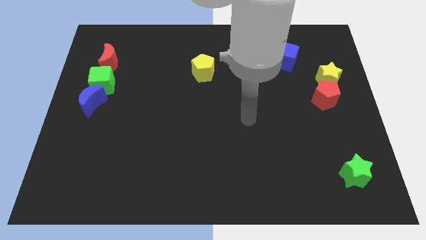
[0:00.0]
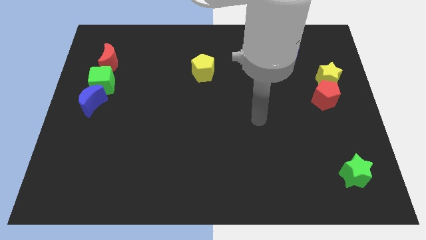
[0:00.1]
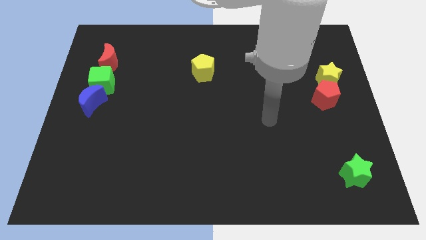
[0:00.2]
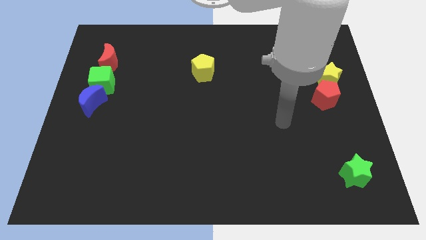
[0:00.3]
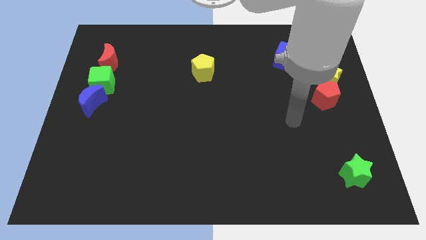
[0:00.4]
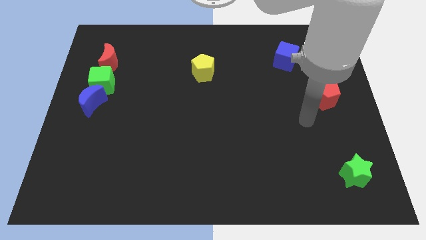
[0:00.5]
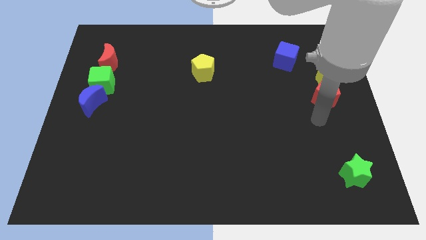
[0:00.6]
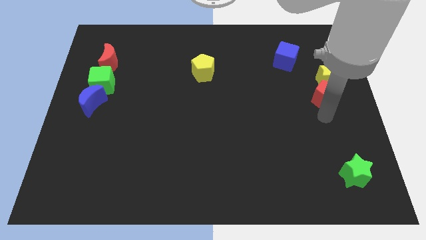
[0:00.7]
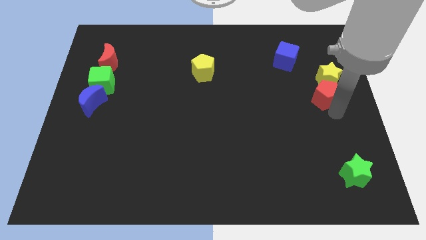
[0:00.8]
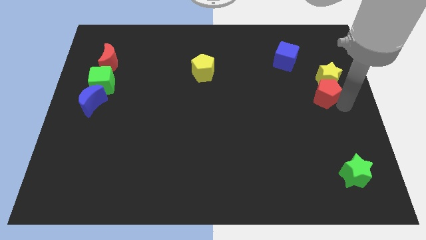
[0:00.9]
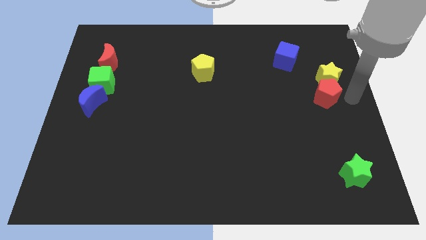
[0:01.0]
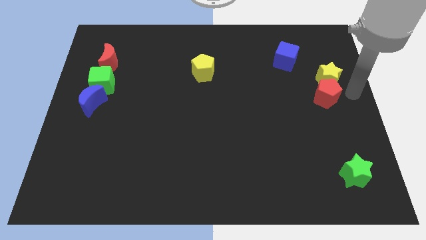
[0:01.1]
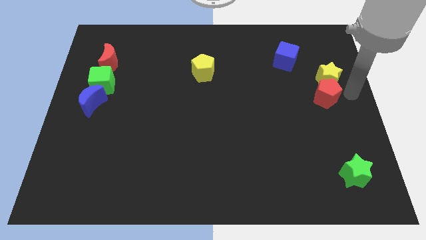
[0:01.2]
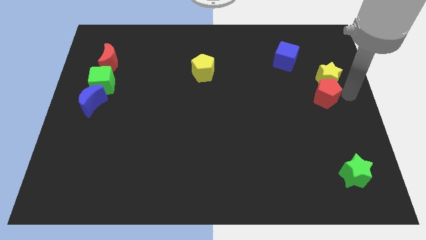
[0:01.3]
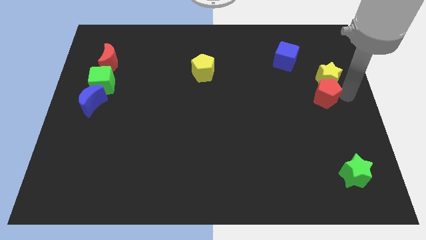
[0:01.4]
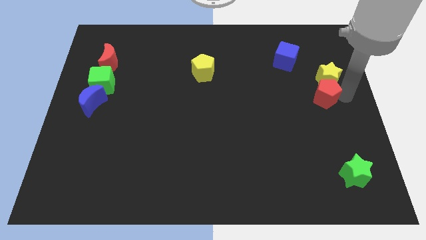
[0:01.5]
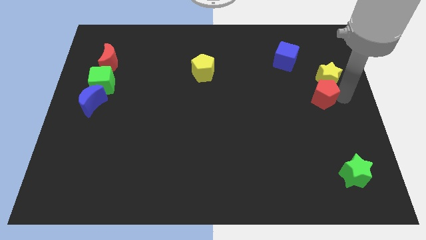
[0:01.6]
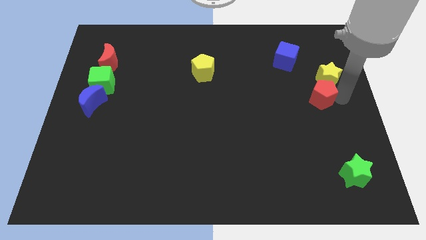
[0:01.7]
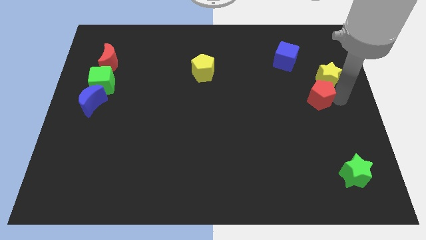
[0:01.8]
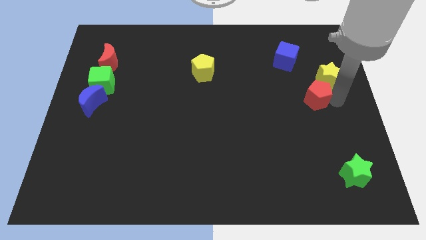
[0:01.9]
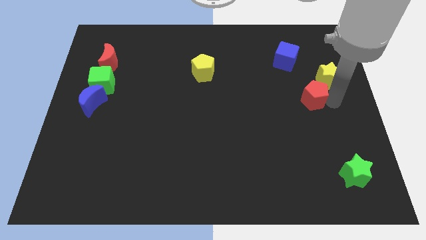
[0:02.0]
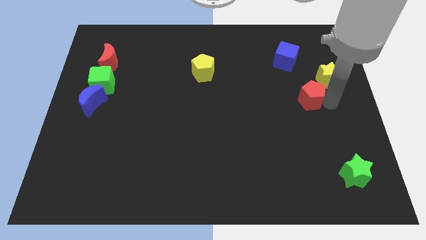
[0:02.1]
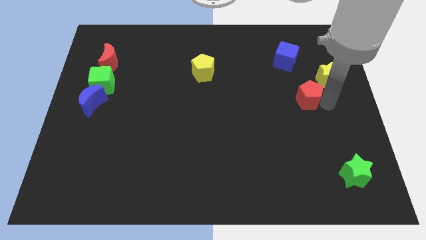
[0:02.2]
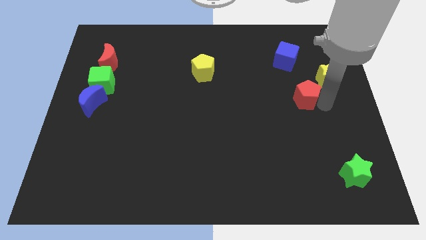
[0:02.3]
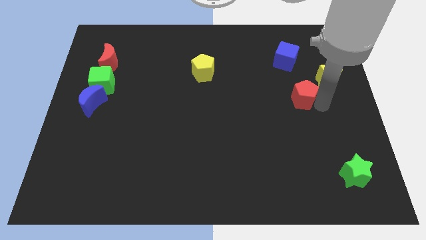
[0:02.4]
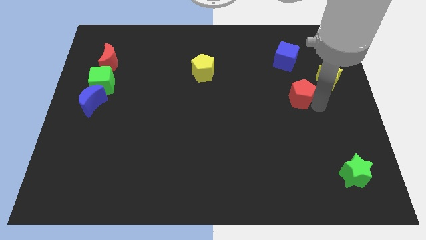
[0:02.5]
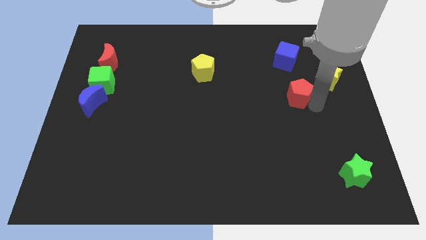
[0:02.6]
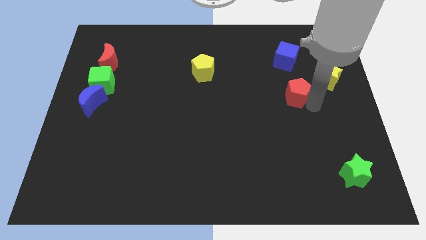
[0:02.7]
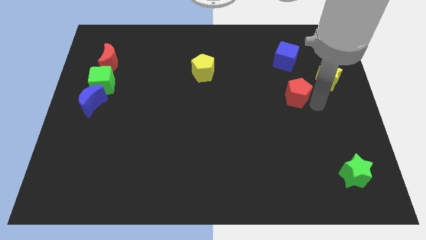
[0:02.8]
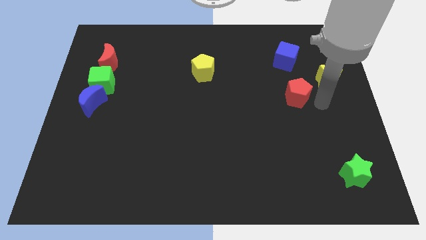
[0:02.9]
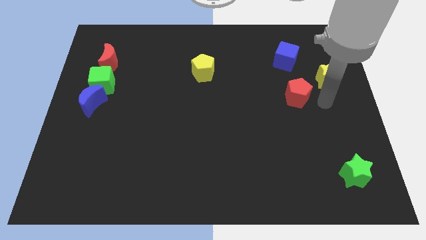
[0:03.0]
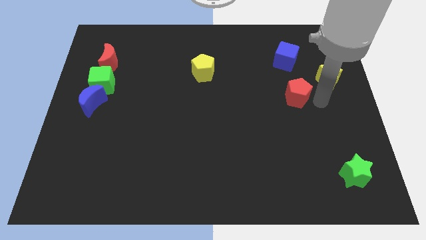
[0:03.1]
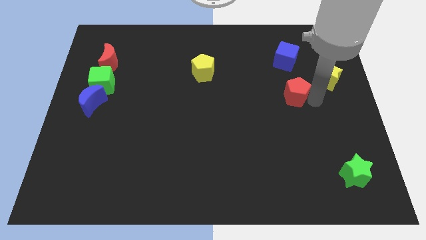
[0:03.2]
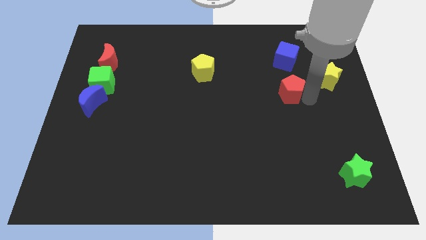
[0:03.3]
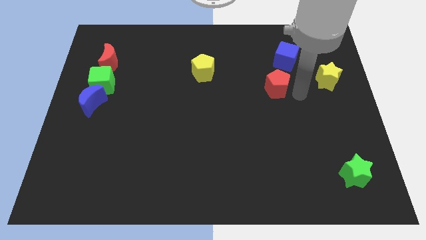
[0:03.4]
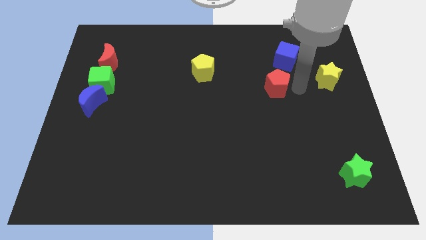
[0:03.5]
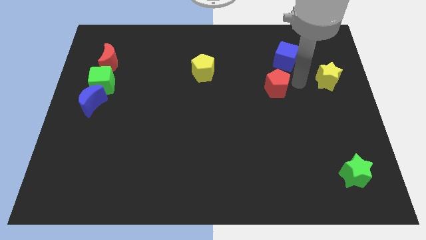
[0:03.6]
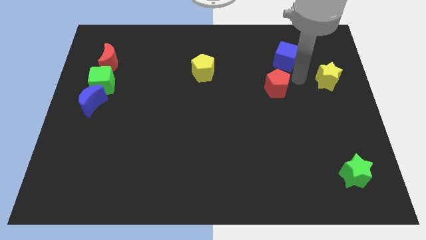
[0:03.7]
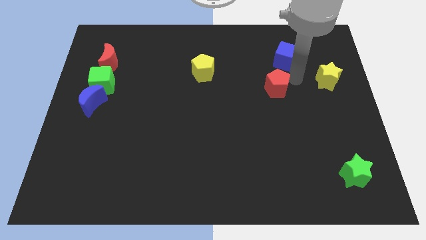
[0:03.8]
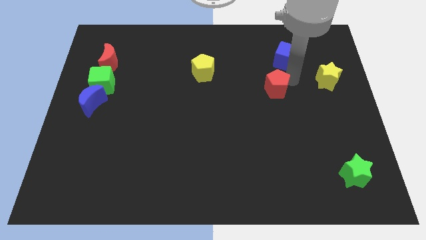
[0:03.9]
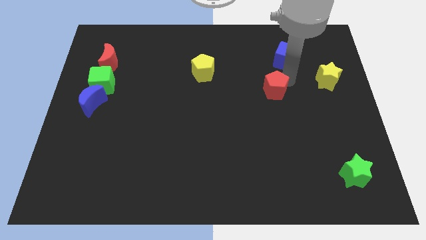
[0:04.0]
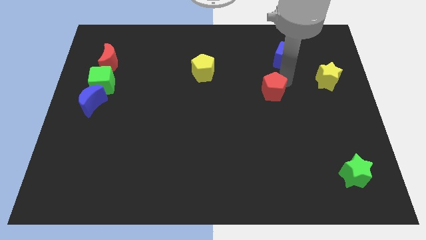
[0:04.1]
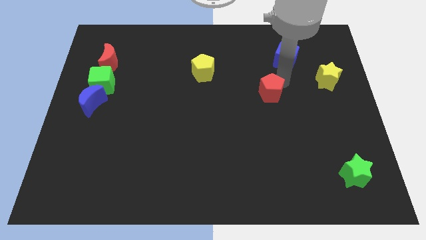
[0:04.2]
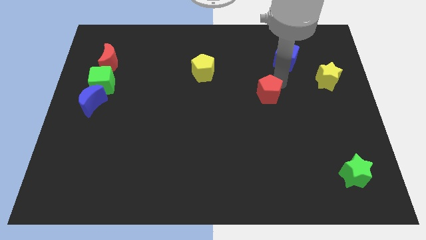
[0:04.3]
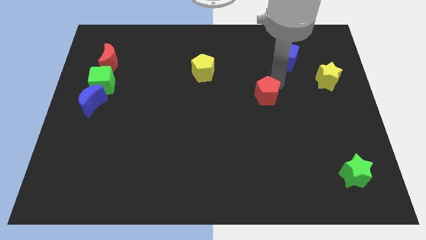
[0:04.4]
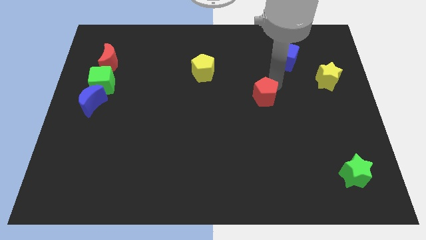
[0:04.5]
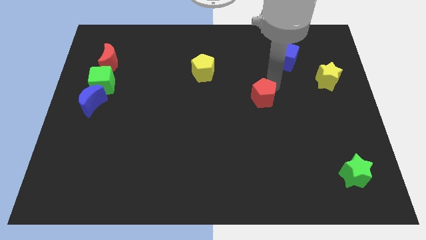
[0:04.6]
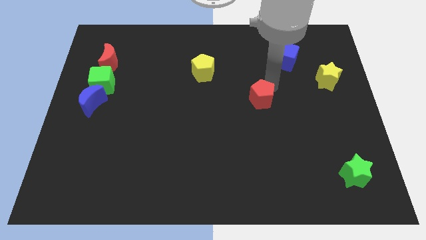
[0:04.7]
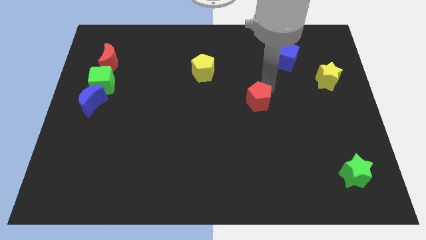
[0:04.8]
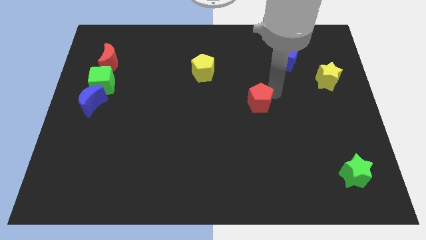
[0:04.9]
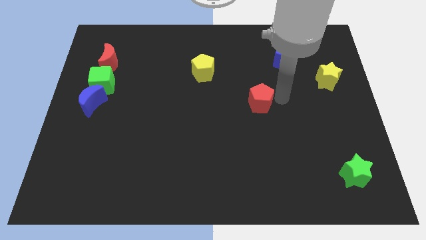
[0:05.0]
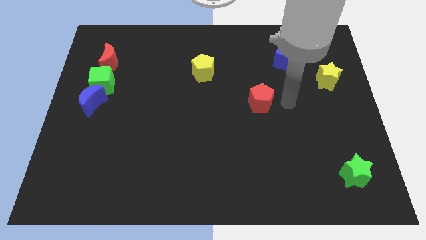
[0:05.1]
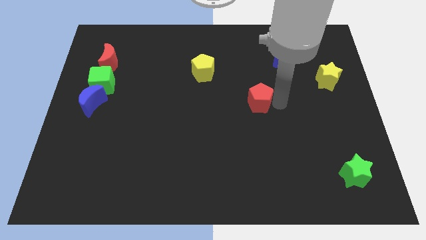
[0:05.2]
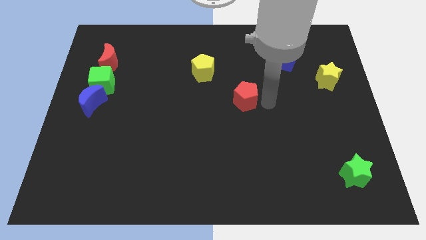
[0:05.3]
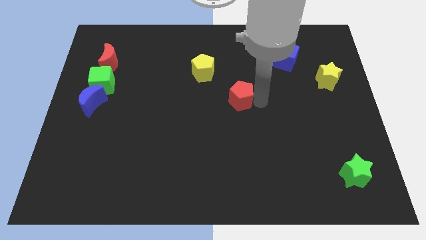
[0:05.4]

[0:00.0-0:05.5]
move the red pentagon to the left

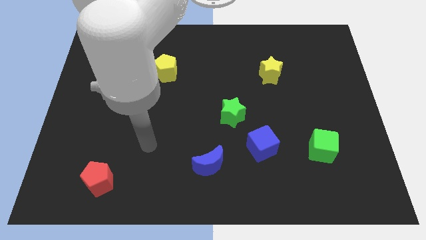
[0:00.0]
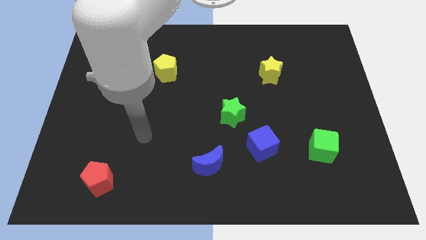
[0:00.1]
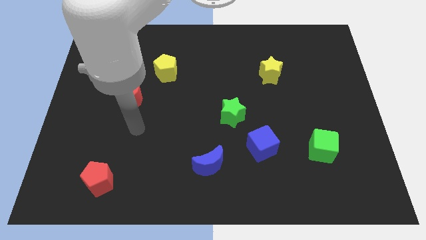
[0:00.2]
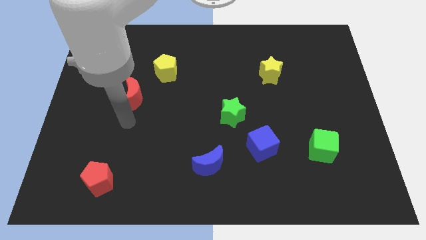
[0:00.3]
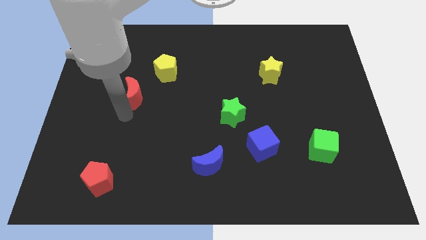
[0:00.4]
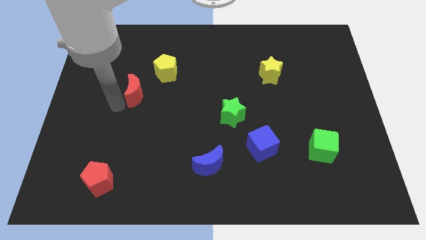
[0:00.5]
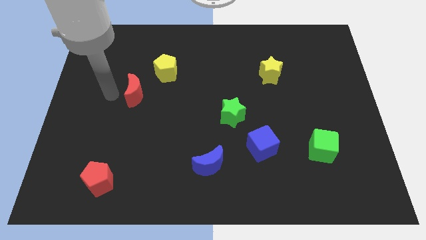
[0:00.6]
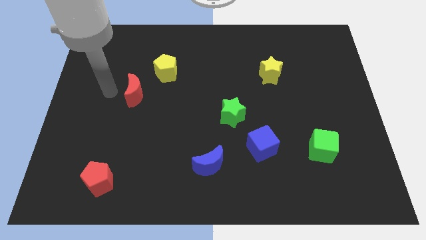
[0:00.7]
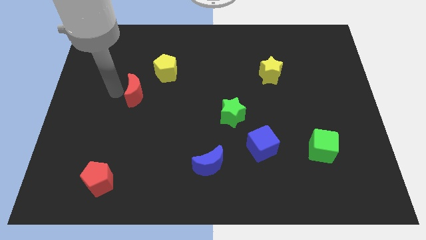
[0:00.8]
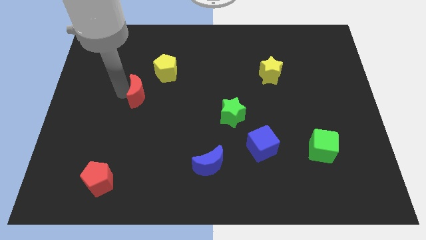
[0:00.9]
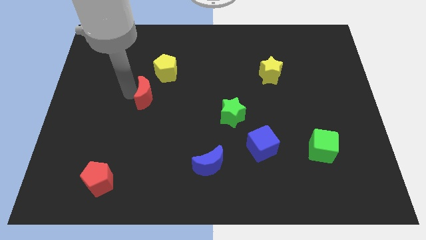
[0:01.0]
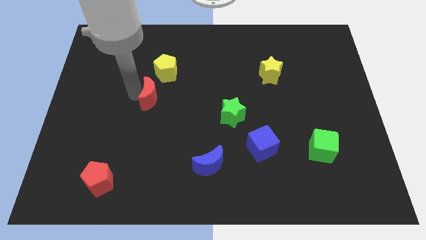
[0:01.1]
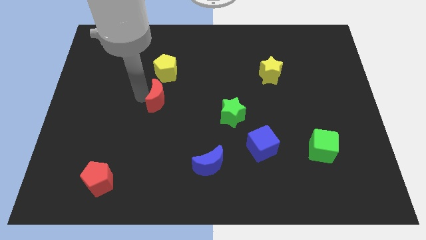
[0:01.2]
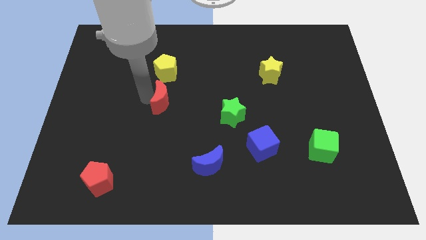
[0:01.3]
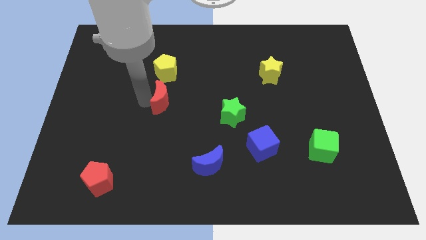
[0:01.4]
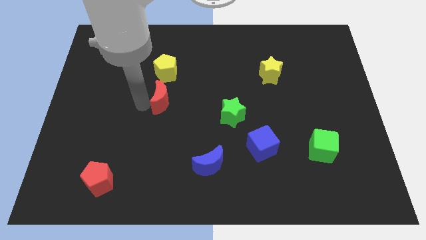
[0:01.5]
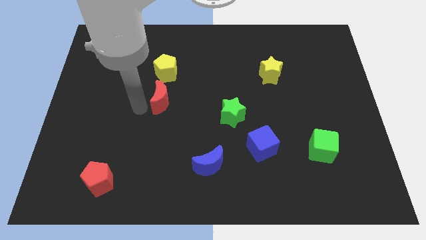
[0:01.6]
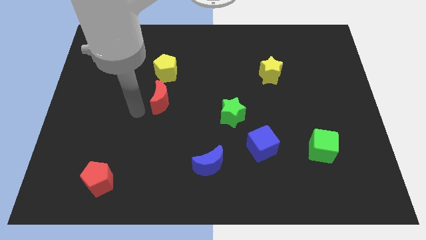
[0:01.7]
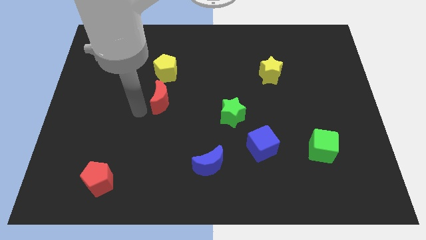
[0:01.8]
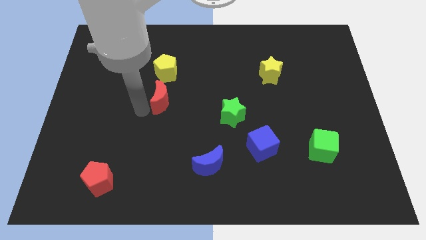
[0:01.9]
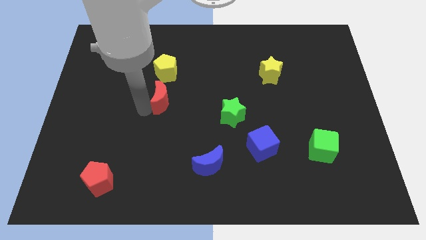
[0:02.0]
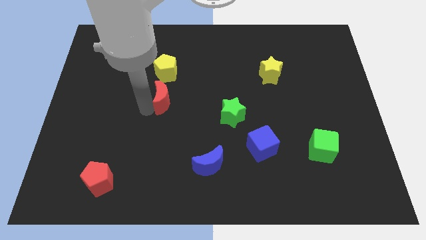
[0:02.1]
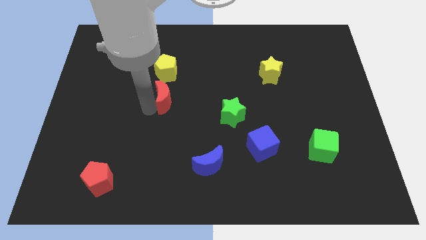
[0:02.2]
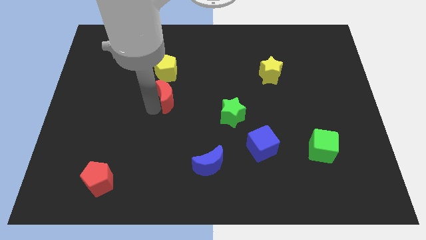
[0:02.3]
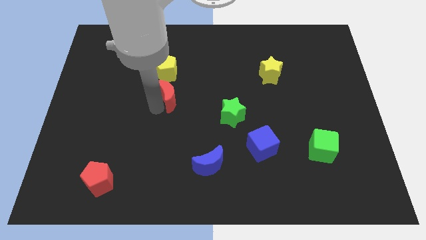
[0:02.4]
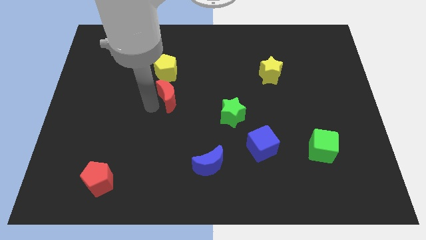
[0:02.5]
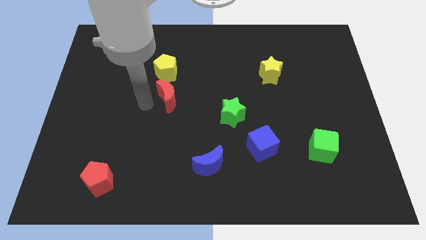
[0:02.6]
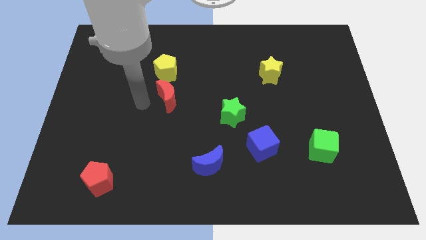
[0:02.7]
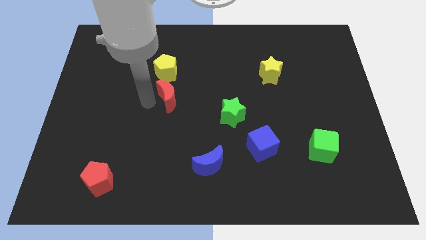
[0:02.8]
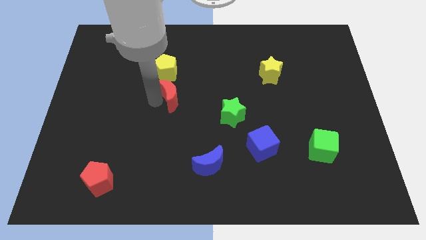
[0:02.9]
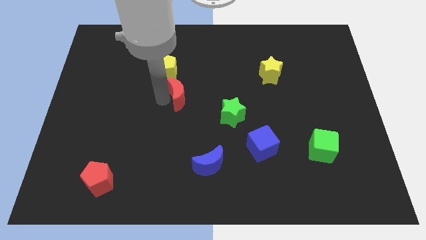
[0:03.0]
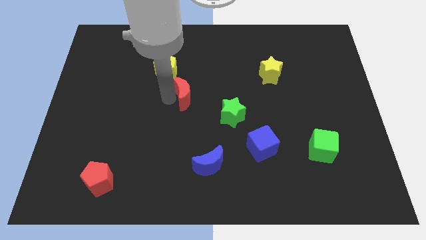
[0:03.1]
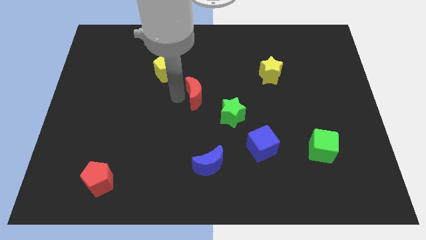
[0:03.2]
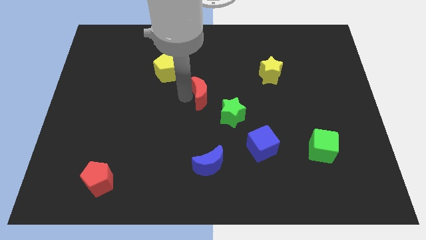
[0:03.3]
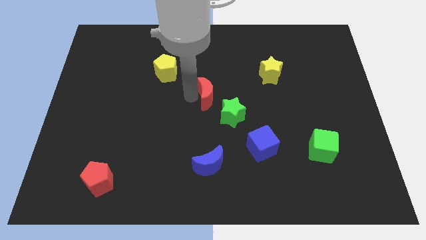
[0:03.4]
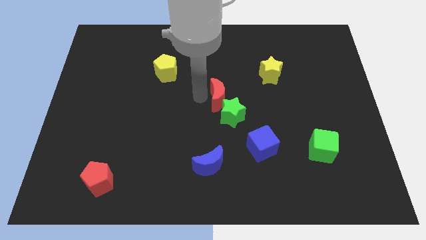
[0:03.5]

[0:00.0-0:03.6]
slide the red moon right
